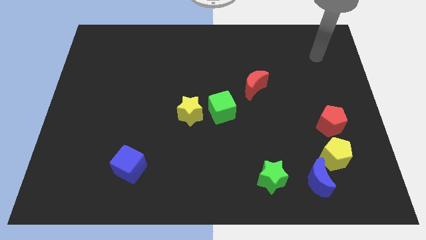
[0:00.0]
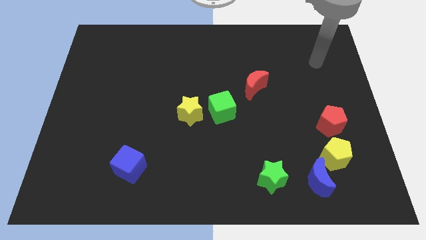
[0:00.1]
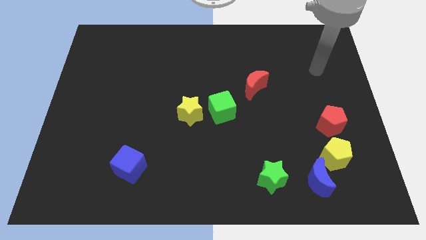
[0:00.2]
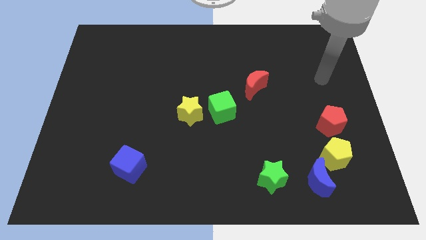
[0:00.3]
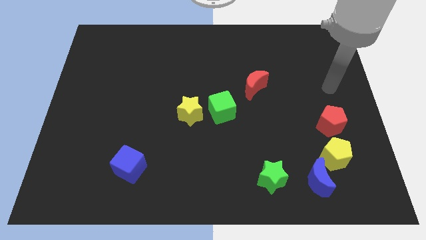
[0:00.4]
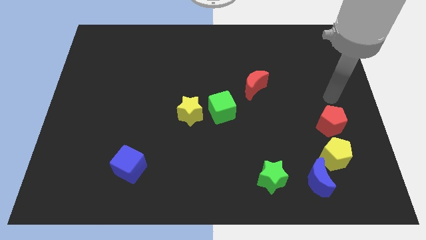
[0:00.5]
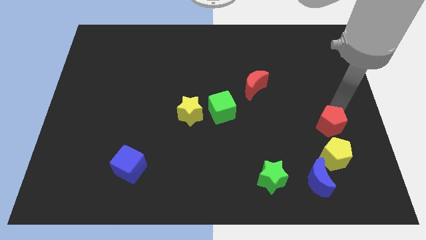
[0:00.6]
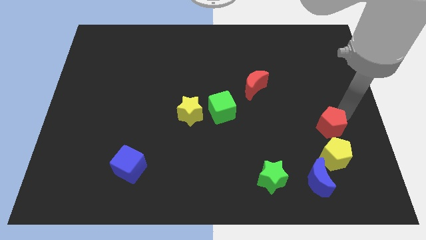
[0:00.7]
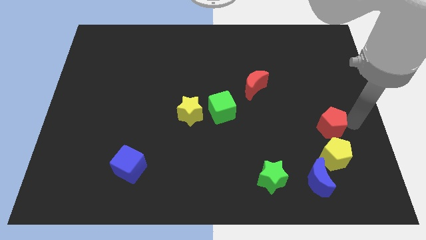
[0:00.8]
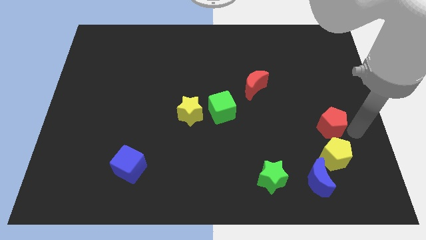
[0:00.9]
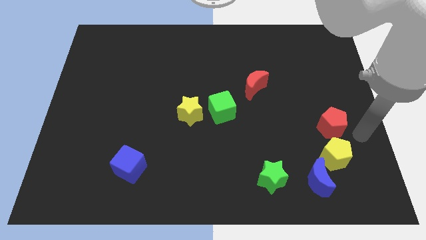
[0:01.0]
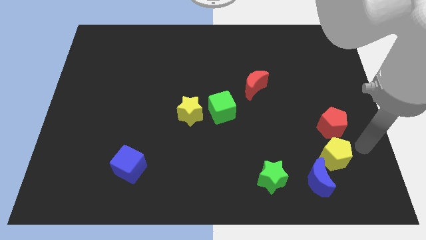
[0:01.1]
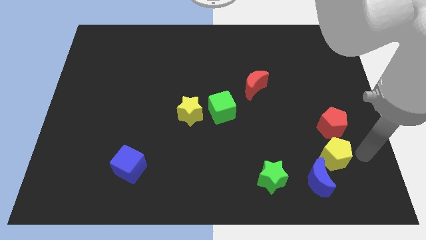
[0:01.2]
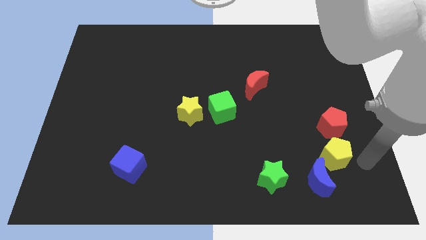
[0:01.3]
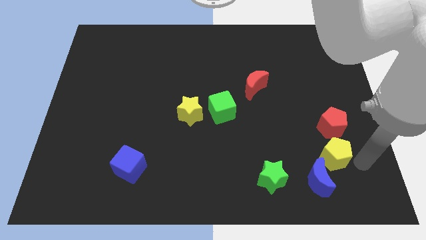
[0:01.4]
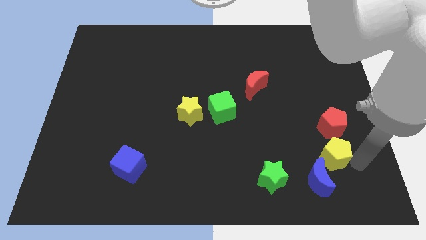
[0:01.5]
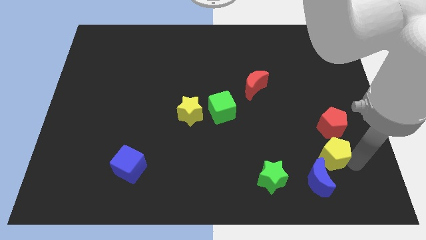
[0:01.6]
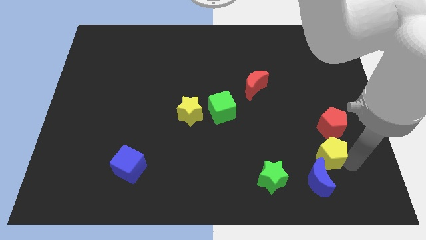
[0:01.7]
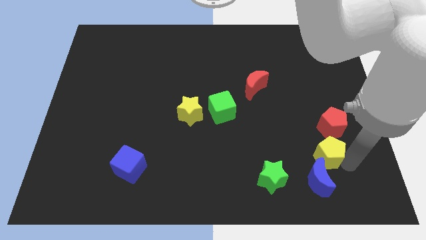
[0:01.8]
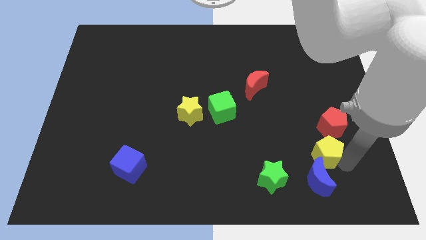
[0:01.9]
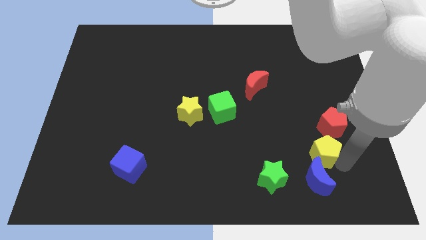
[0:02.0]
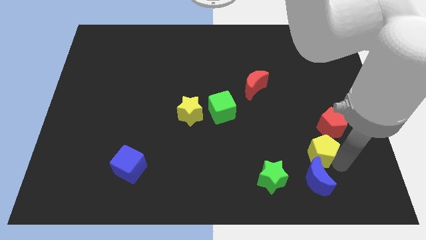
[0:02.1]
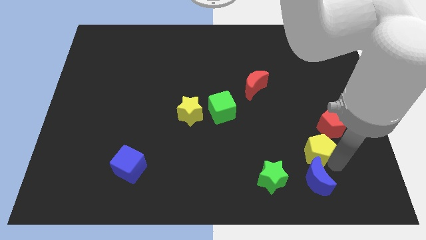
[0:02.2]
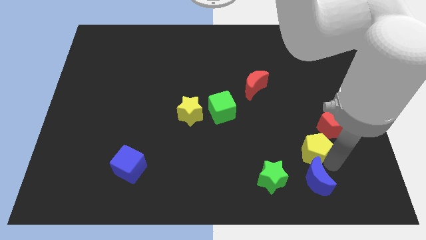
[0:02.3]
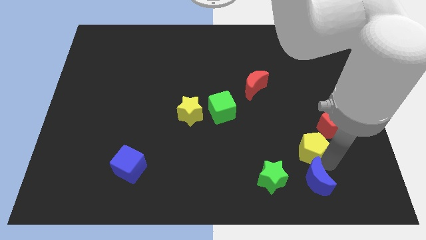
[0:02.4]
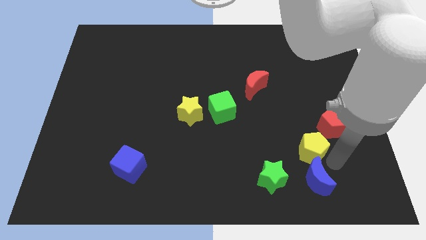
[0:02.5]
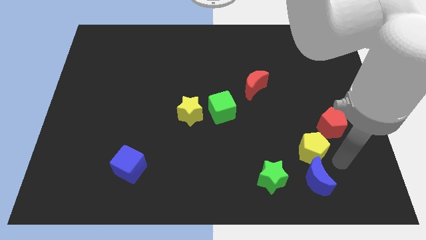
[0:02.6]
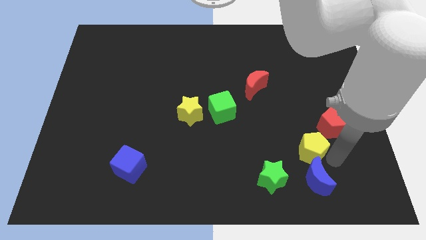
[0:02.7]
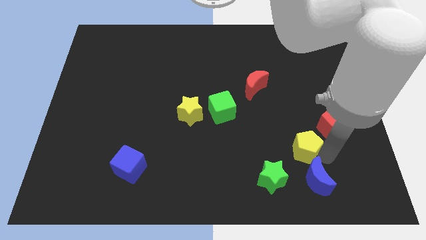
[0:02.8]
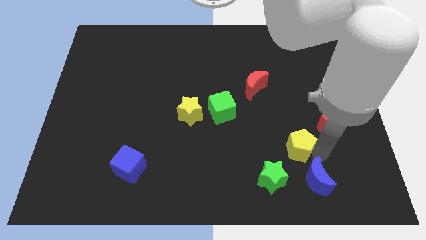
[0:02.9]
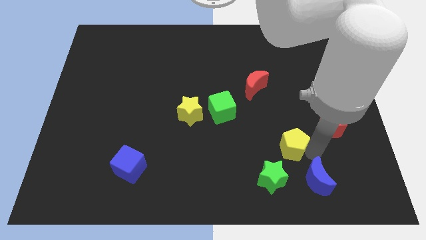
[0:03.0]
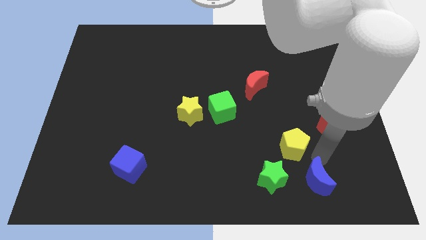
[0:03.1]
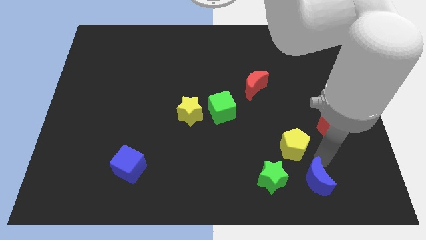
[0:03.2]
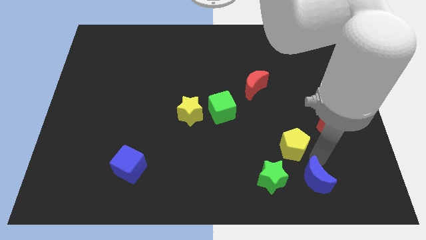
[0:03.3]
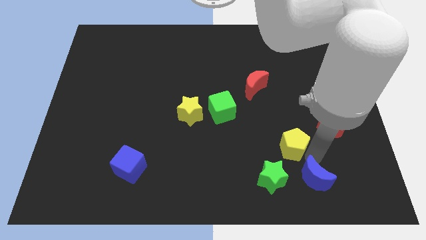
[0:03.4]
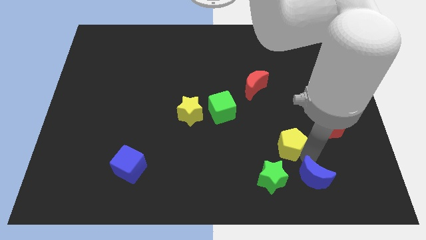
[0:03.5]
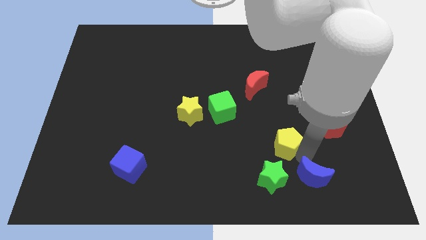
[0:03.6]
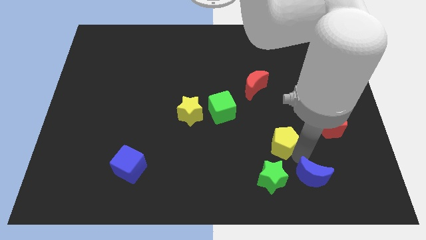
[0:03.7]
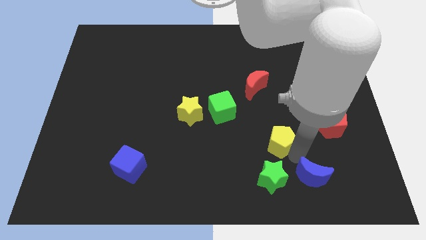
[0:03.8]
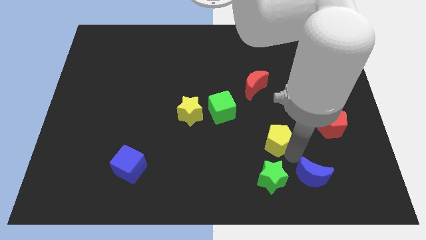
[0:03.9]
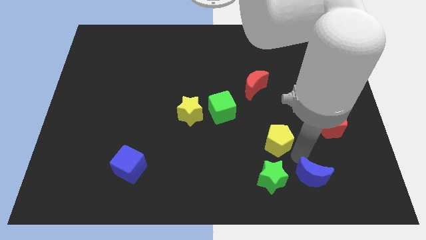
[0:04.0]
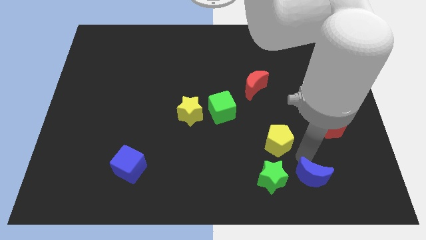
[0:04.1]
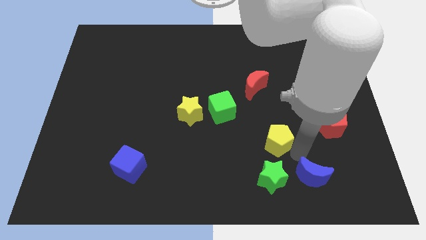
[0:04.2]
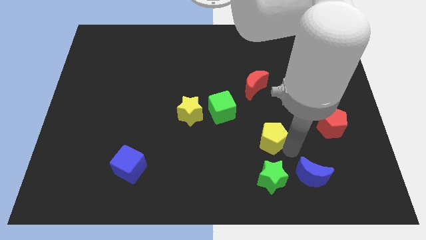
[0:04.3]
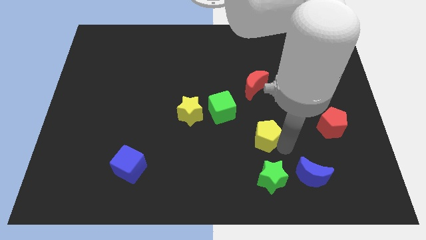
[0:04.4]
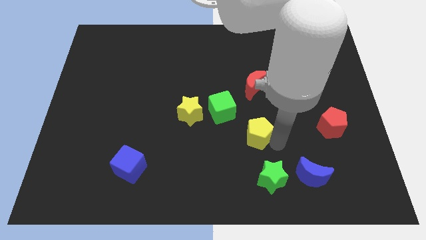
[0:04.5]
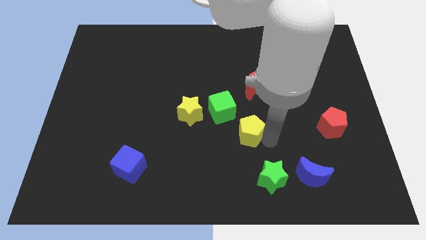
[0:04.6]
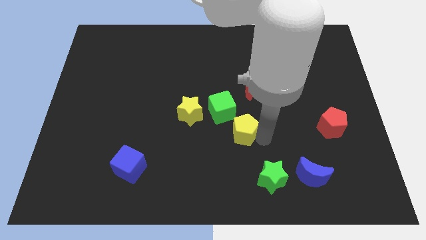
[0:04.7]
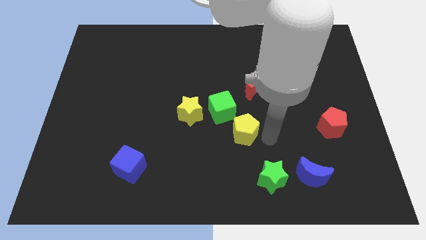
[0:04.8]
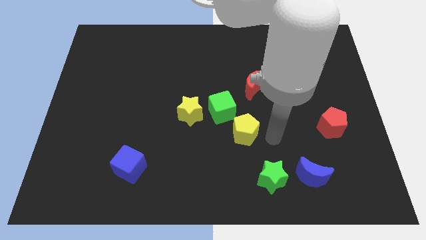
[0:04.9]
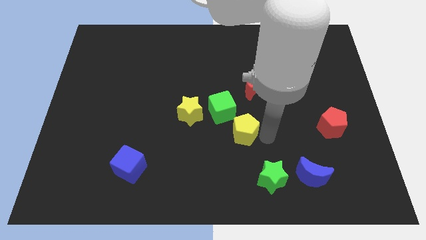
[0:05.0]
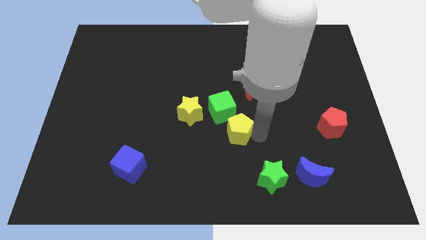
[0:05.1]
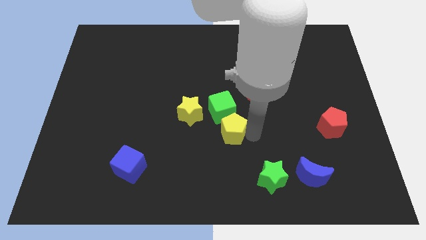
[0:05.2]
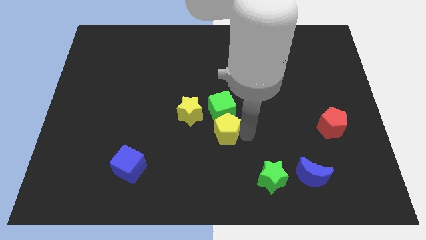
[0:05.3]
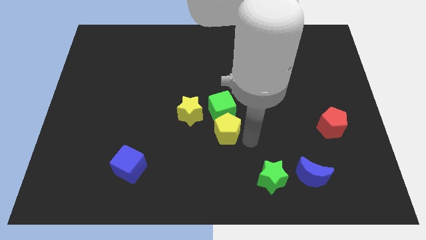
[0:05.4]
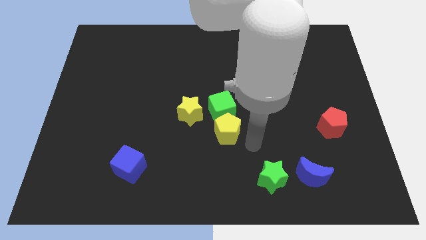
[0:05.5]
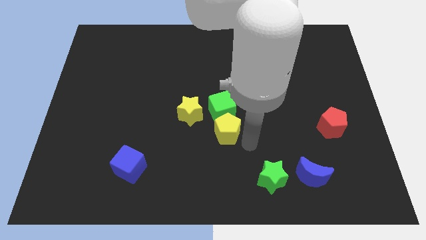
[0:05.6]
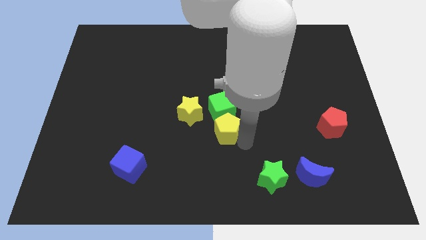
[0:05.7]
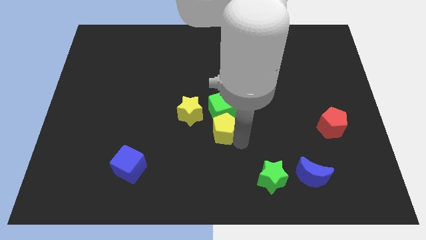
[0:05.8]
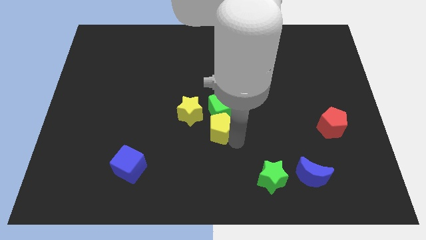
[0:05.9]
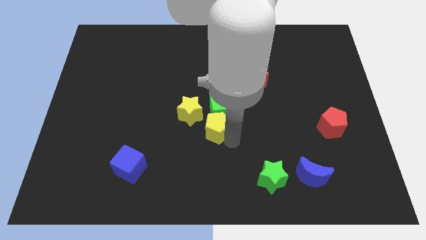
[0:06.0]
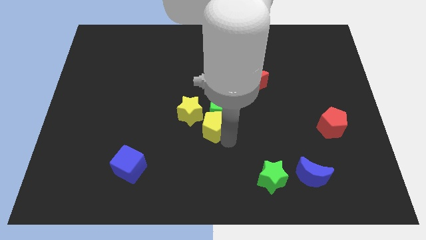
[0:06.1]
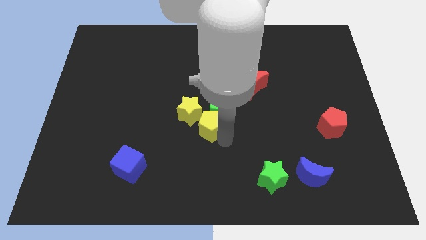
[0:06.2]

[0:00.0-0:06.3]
slide the yellow pentagon next to the yellow star

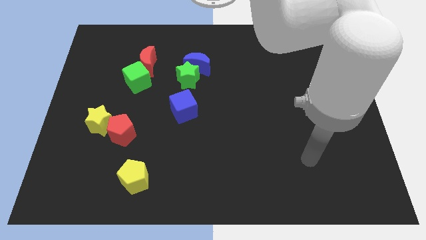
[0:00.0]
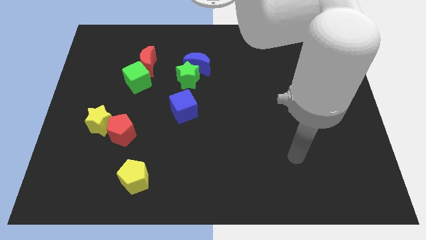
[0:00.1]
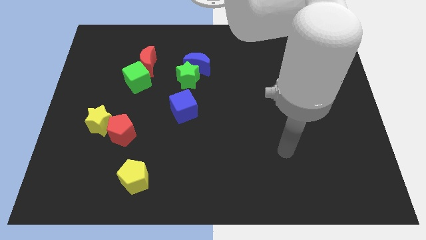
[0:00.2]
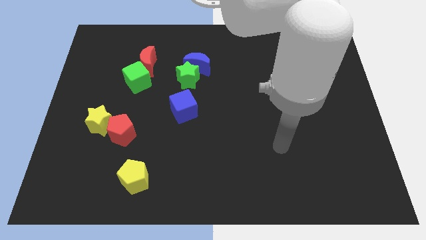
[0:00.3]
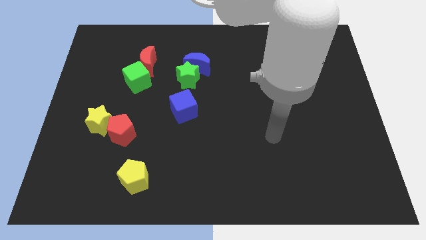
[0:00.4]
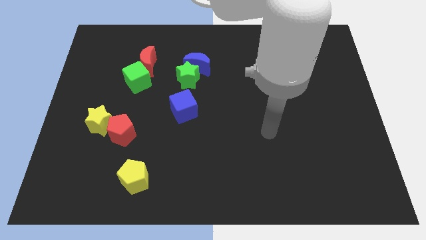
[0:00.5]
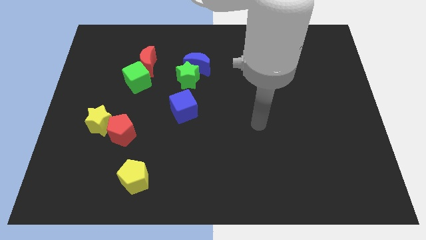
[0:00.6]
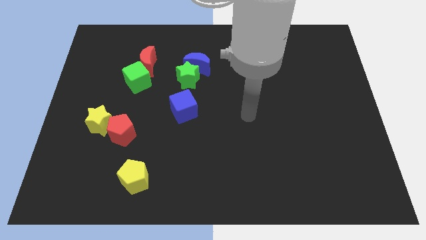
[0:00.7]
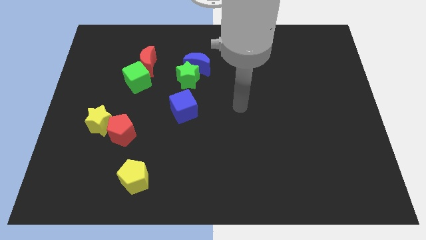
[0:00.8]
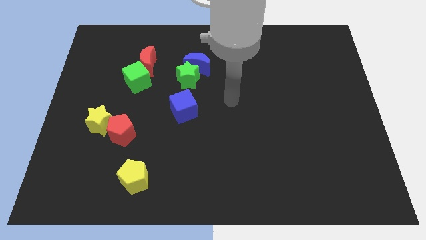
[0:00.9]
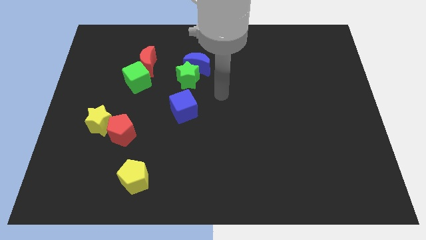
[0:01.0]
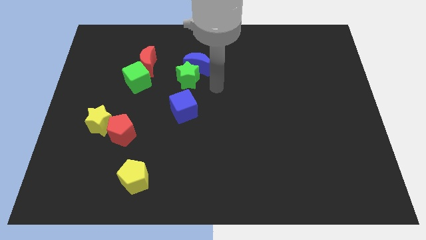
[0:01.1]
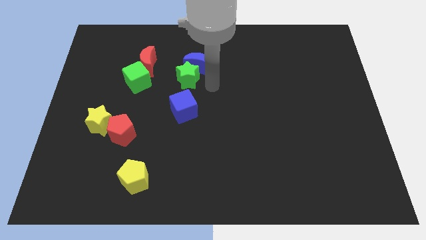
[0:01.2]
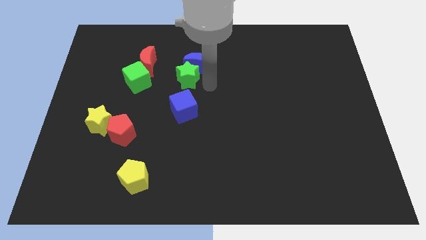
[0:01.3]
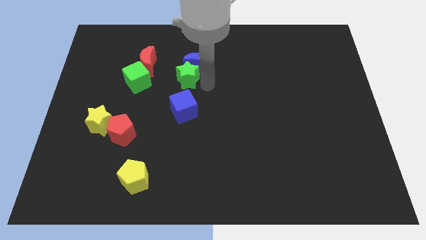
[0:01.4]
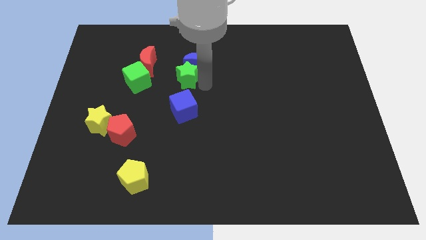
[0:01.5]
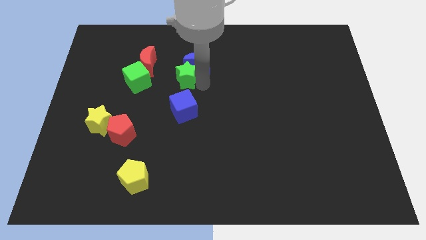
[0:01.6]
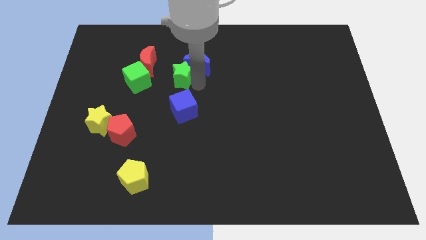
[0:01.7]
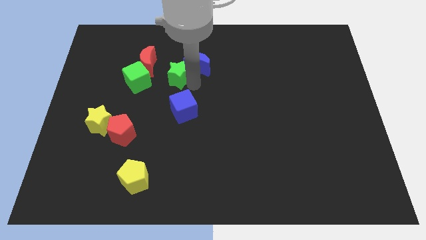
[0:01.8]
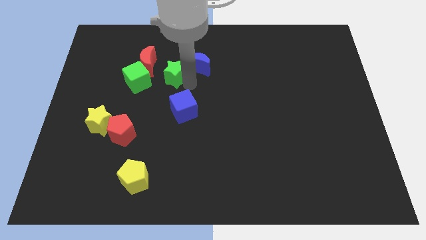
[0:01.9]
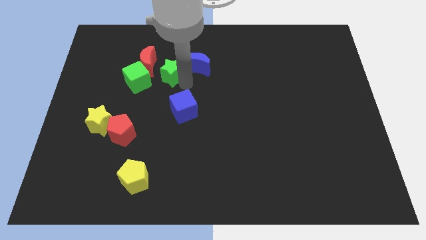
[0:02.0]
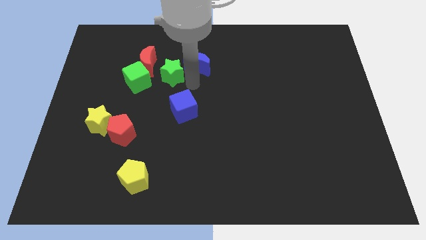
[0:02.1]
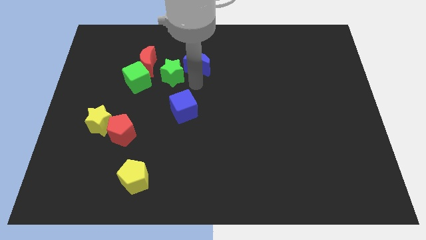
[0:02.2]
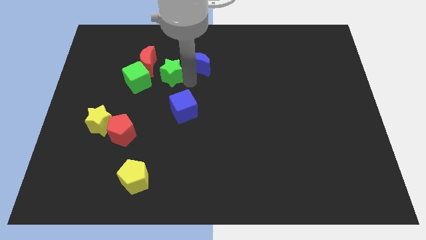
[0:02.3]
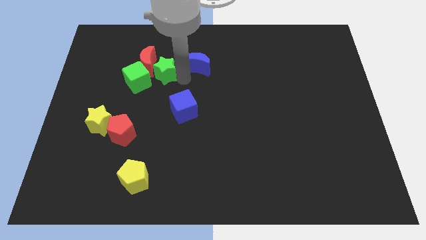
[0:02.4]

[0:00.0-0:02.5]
push the green star towards the red moon
